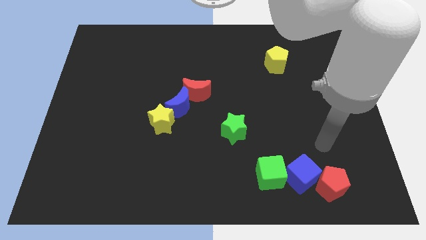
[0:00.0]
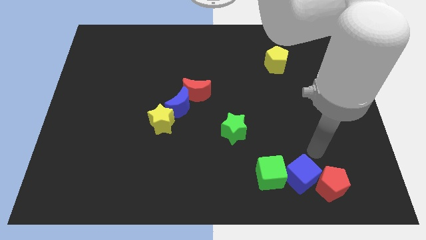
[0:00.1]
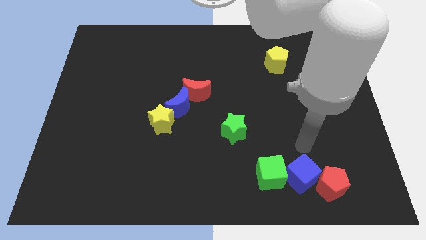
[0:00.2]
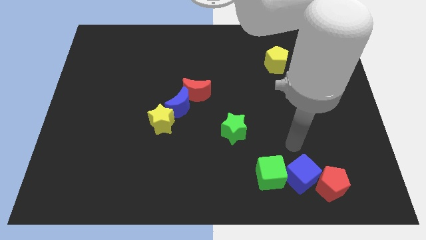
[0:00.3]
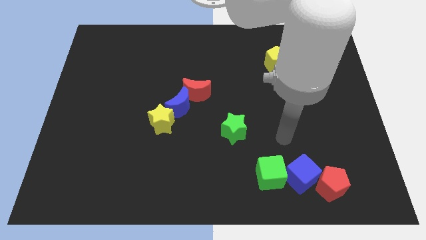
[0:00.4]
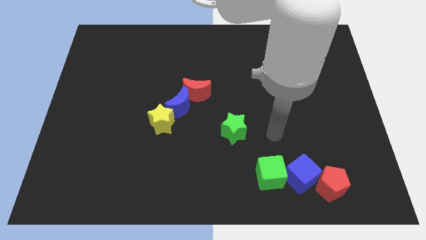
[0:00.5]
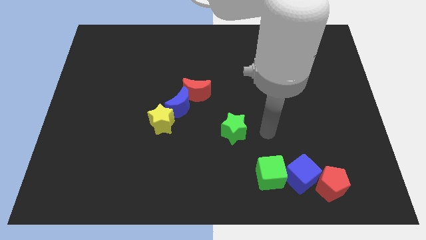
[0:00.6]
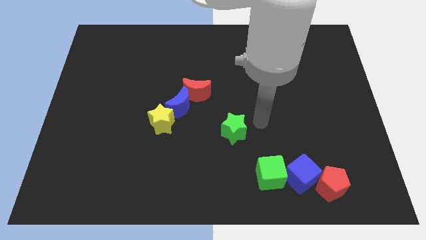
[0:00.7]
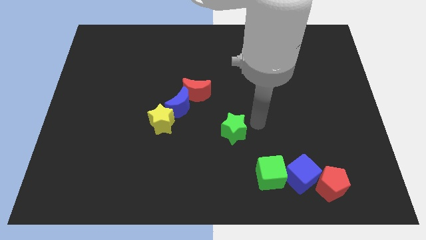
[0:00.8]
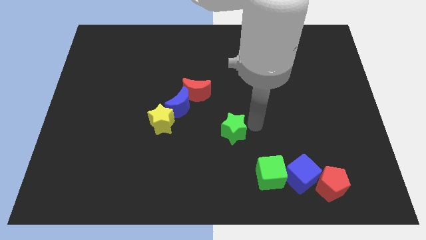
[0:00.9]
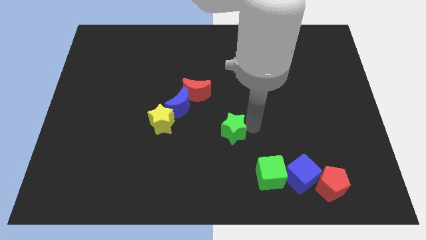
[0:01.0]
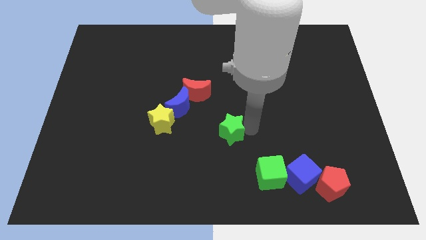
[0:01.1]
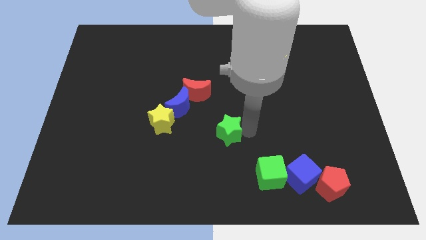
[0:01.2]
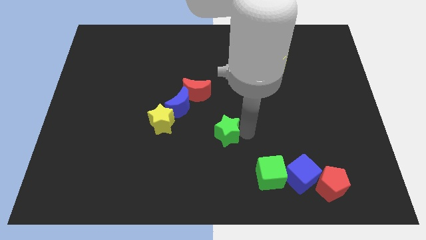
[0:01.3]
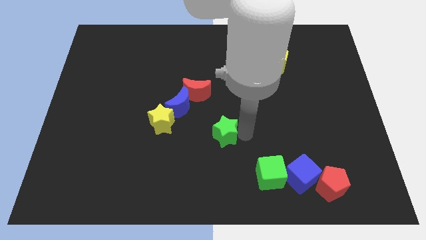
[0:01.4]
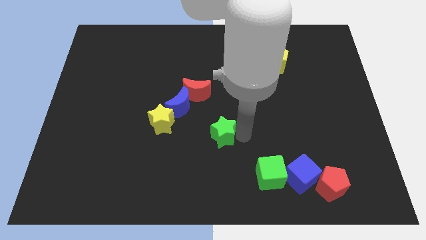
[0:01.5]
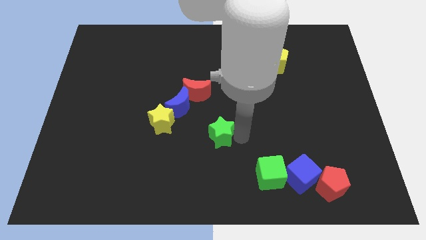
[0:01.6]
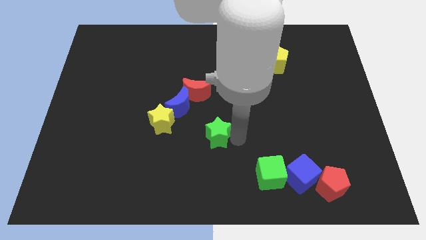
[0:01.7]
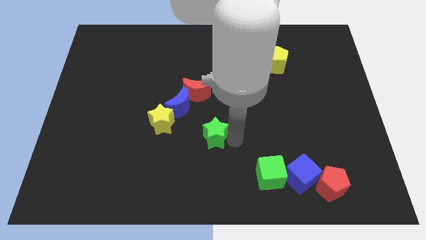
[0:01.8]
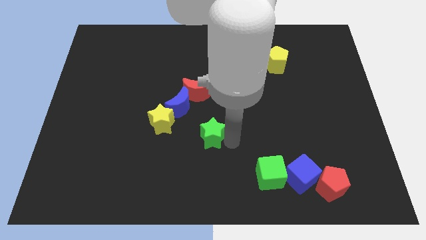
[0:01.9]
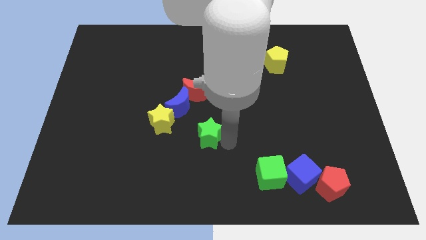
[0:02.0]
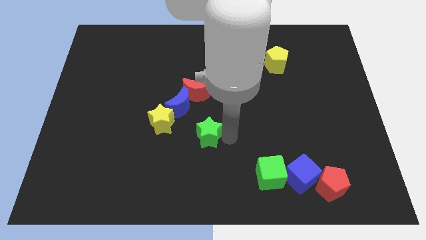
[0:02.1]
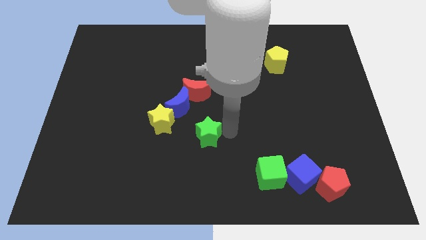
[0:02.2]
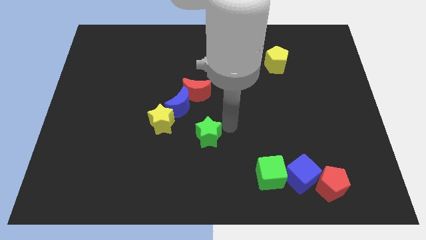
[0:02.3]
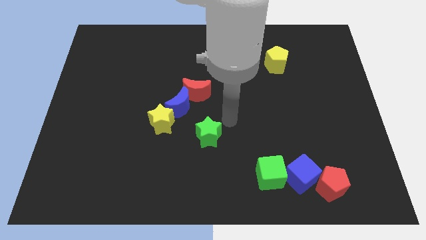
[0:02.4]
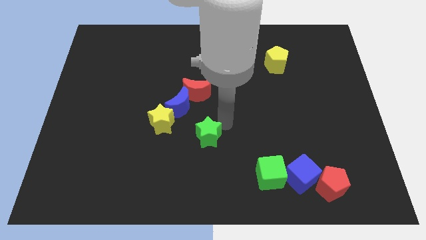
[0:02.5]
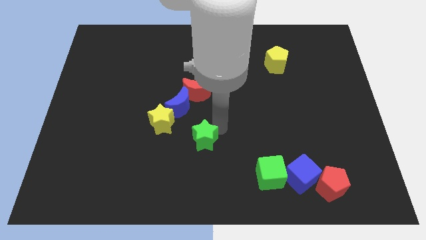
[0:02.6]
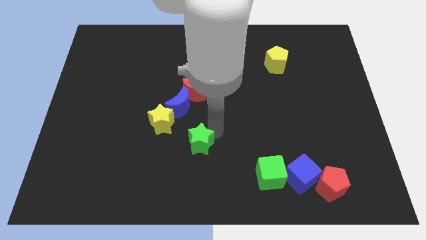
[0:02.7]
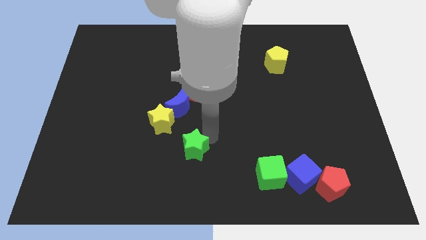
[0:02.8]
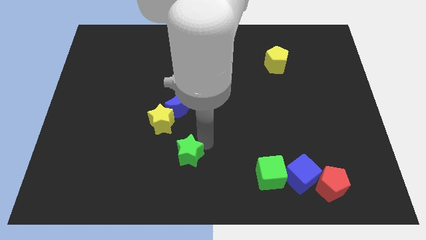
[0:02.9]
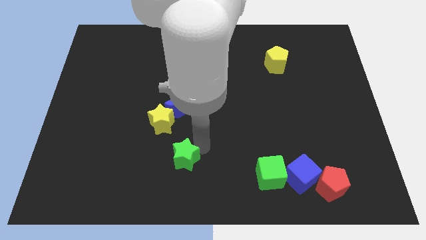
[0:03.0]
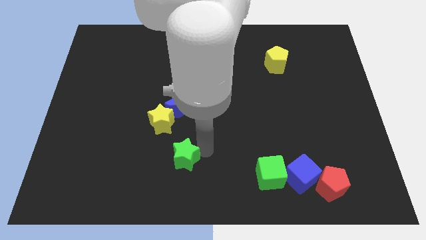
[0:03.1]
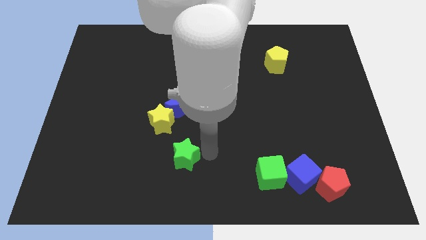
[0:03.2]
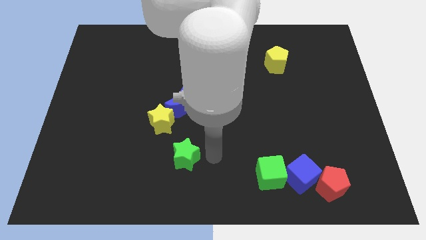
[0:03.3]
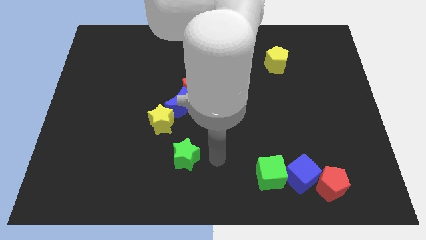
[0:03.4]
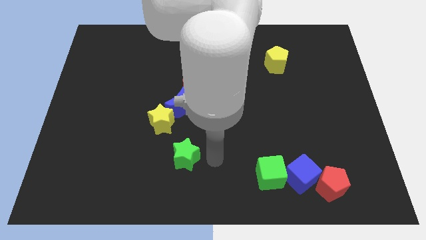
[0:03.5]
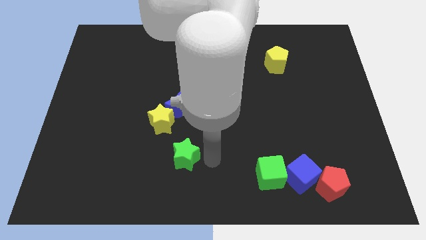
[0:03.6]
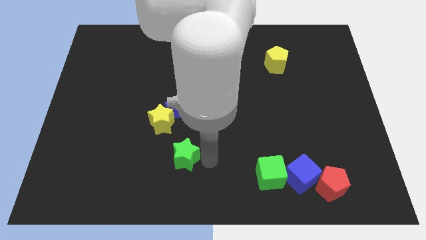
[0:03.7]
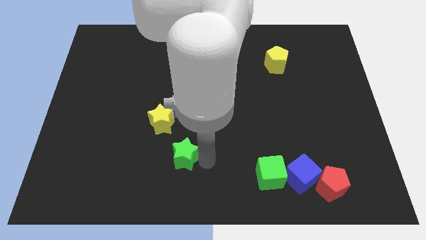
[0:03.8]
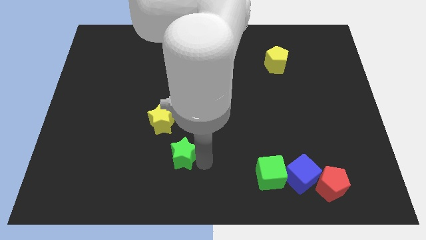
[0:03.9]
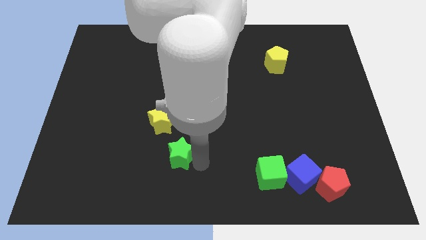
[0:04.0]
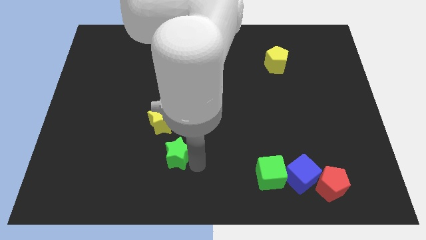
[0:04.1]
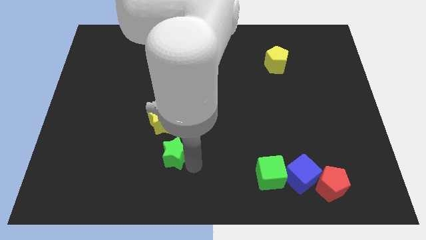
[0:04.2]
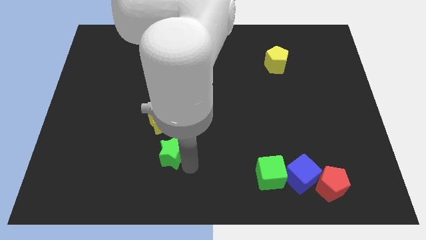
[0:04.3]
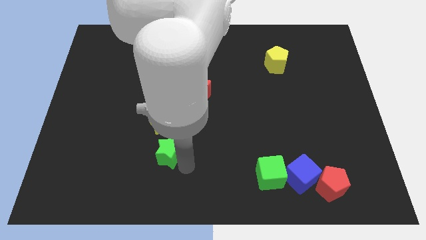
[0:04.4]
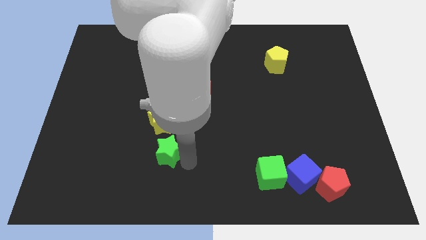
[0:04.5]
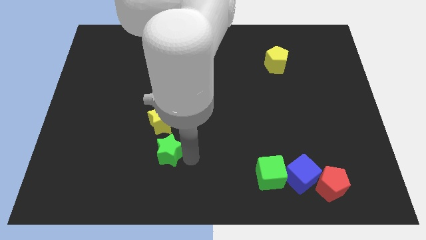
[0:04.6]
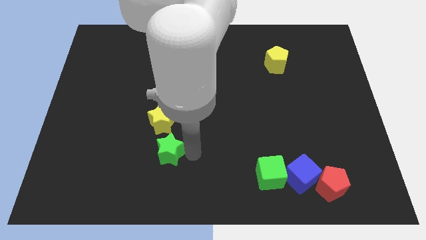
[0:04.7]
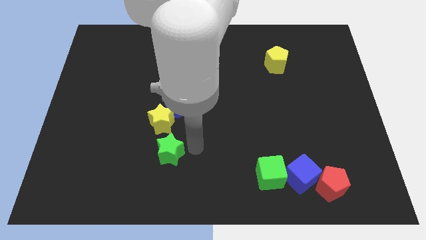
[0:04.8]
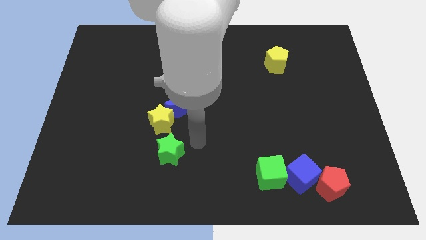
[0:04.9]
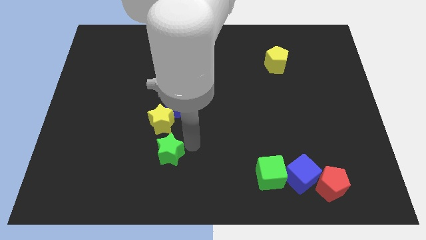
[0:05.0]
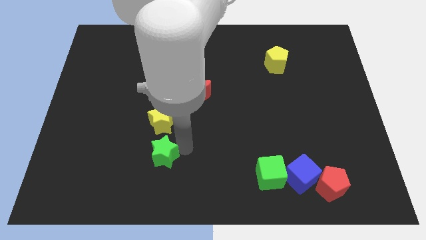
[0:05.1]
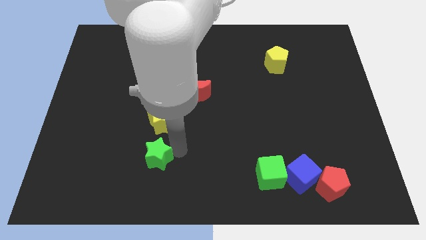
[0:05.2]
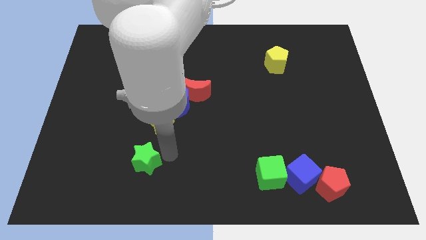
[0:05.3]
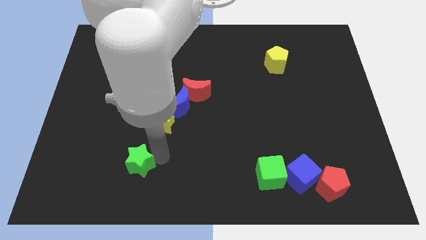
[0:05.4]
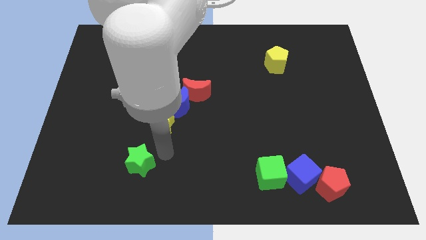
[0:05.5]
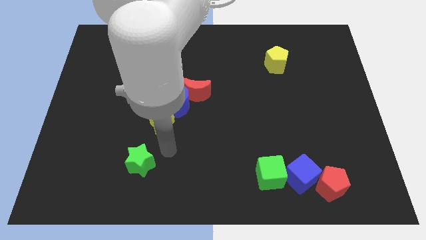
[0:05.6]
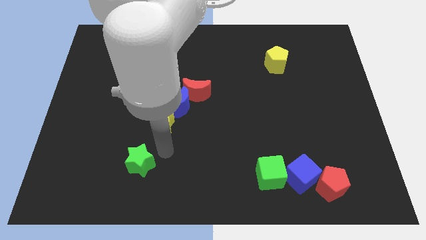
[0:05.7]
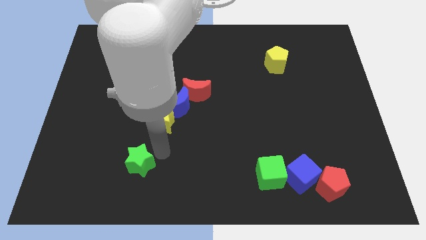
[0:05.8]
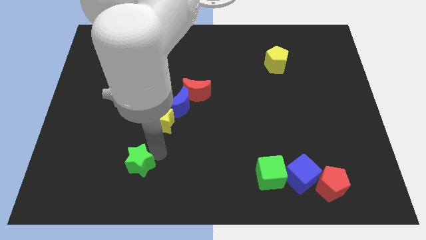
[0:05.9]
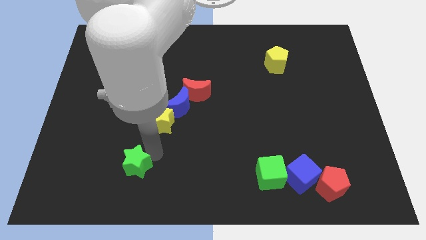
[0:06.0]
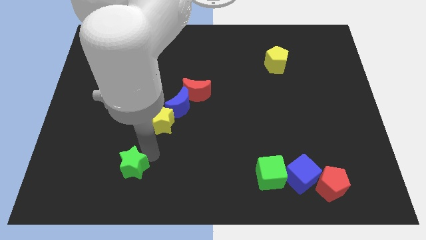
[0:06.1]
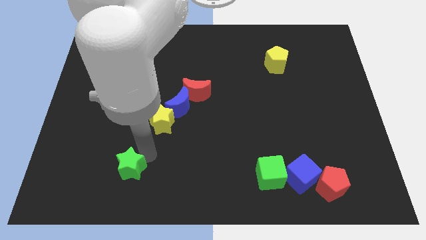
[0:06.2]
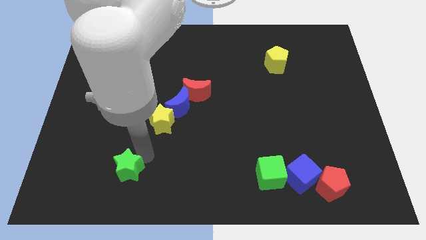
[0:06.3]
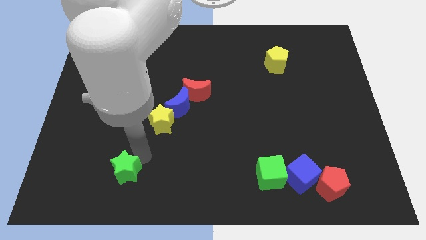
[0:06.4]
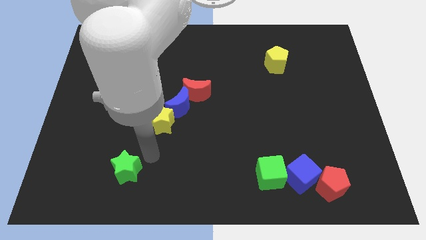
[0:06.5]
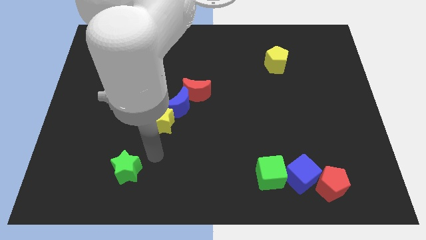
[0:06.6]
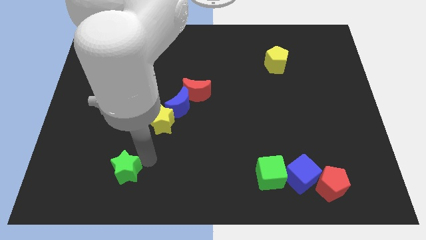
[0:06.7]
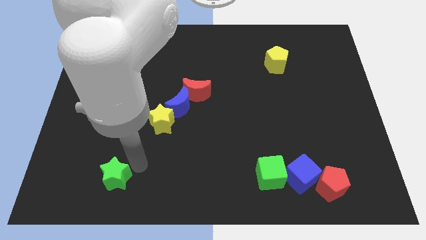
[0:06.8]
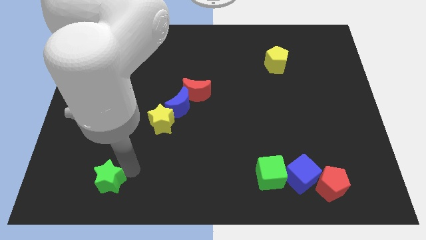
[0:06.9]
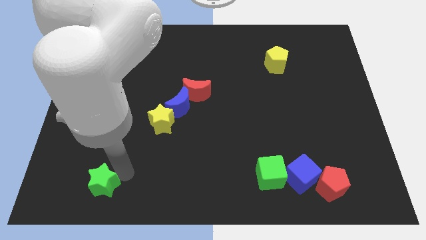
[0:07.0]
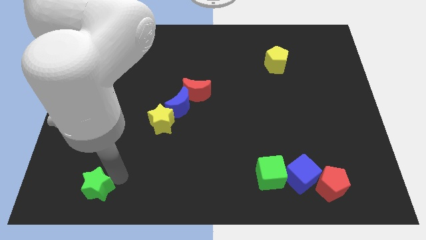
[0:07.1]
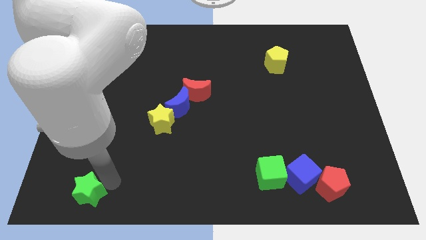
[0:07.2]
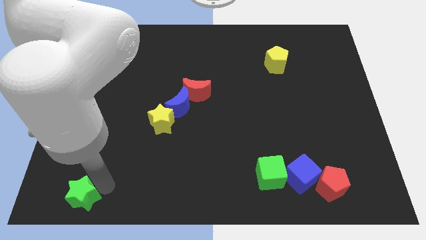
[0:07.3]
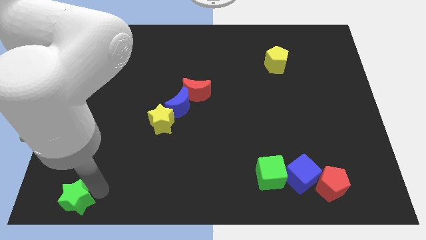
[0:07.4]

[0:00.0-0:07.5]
put the green star to the lower left corner
